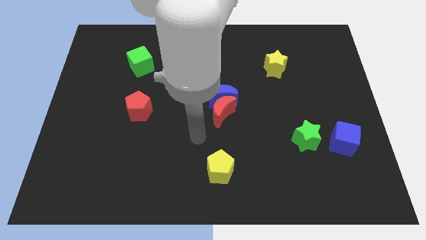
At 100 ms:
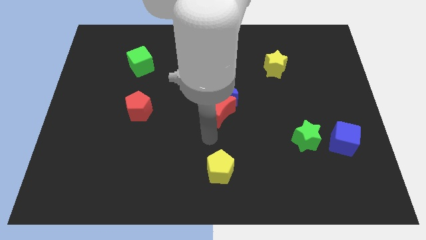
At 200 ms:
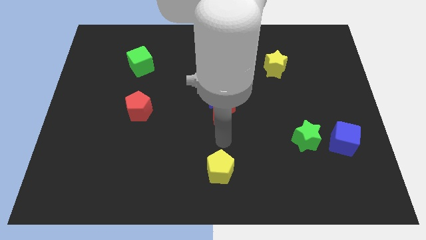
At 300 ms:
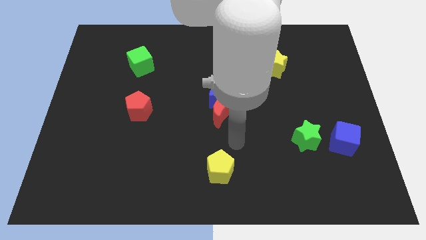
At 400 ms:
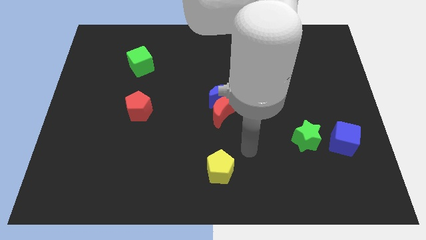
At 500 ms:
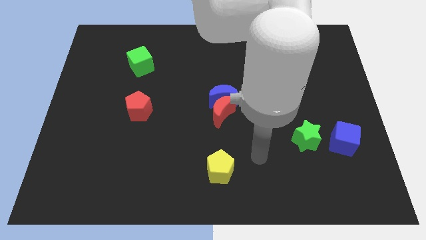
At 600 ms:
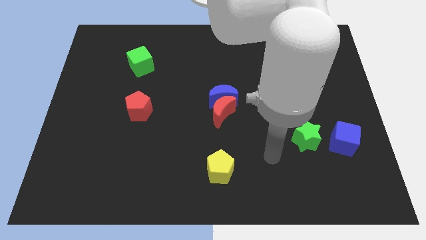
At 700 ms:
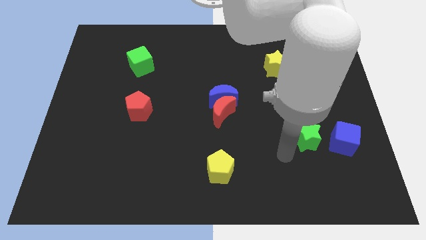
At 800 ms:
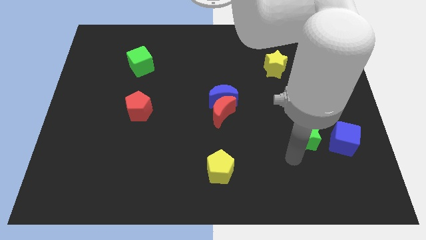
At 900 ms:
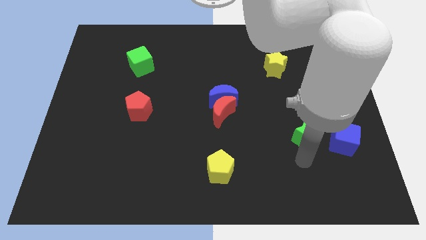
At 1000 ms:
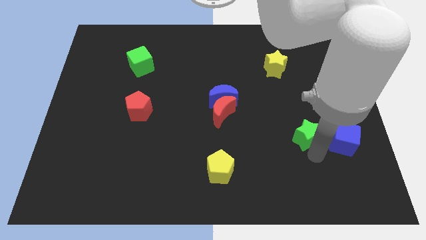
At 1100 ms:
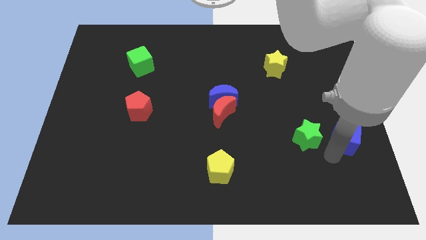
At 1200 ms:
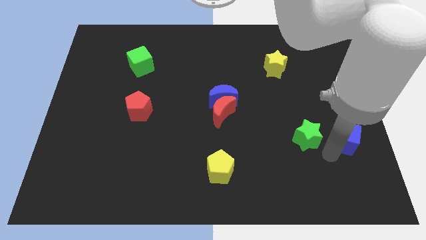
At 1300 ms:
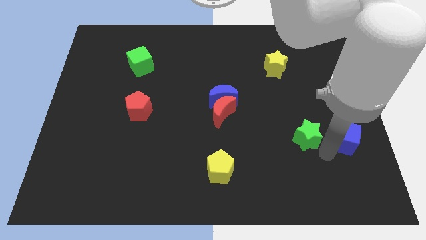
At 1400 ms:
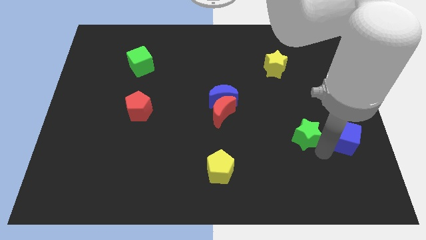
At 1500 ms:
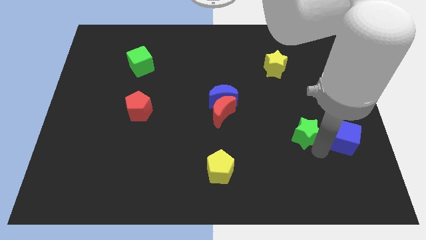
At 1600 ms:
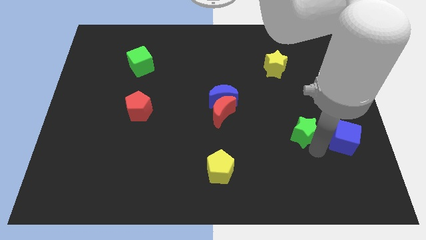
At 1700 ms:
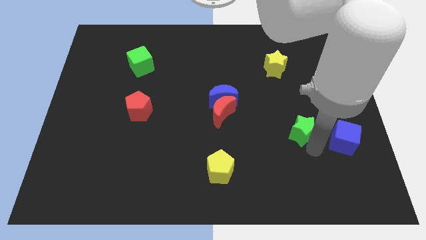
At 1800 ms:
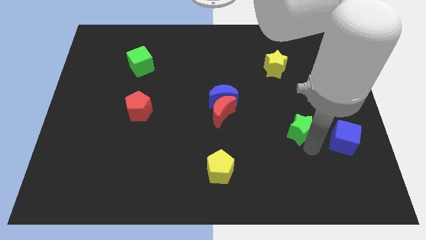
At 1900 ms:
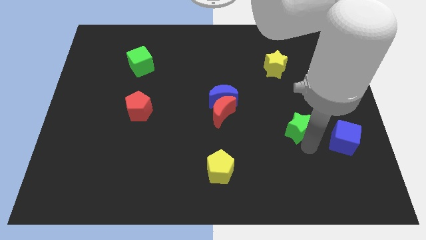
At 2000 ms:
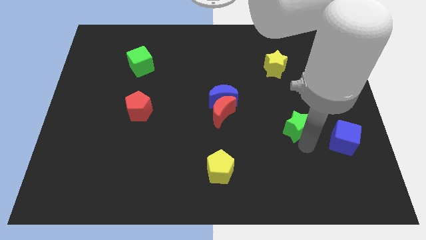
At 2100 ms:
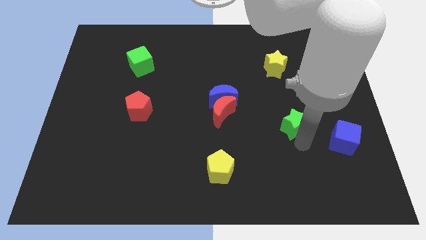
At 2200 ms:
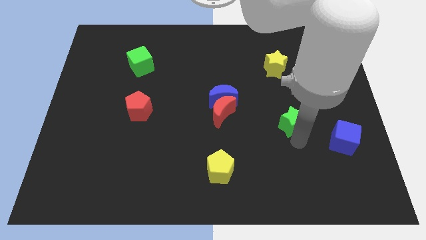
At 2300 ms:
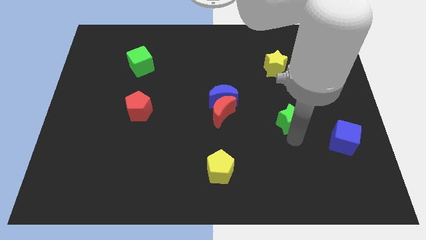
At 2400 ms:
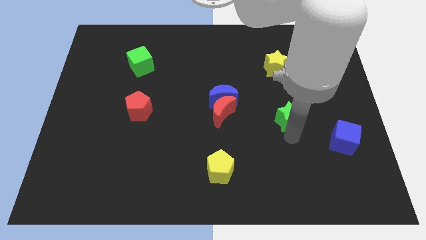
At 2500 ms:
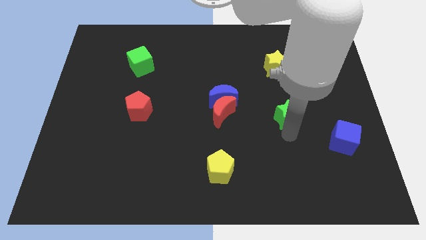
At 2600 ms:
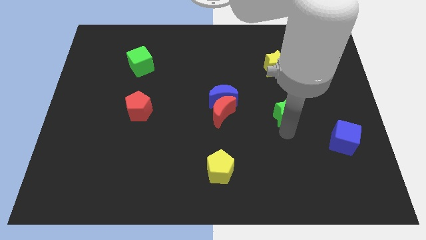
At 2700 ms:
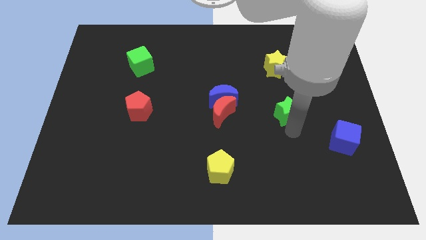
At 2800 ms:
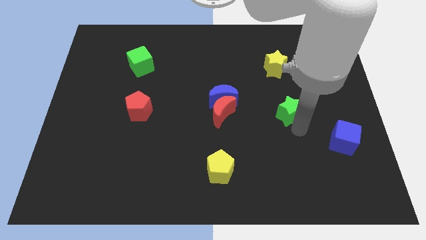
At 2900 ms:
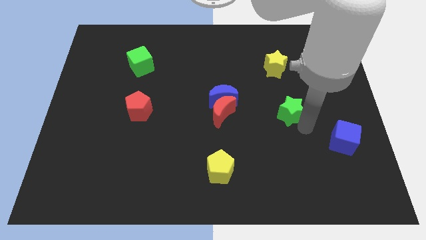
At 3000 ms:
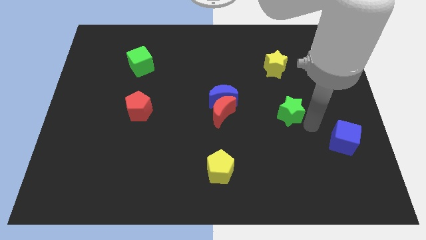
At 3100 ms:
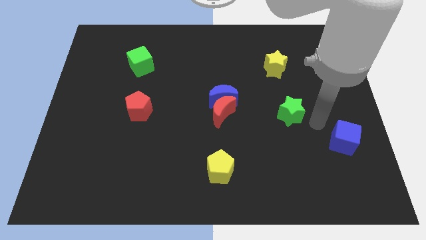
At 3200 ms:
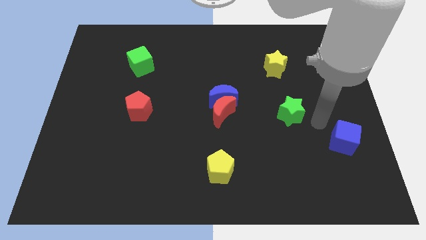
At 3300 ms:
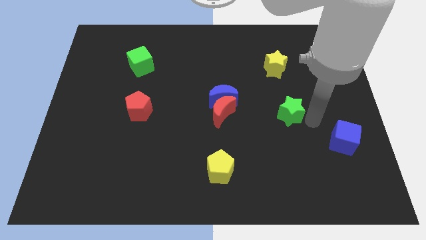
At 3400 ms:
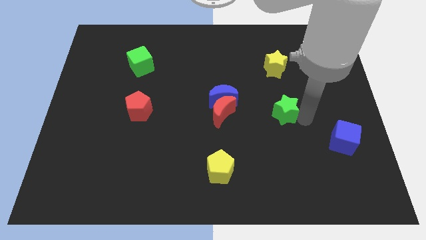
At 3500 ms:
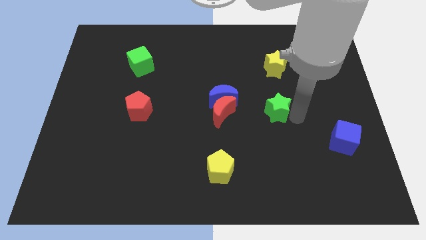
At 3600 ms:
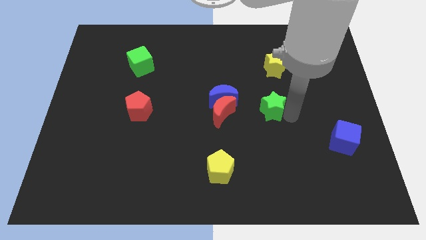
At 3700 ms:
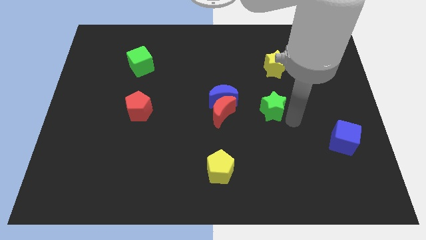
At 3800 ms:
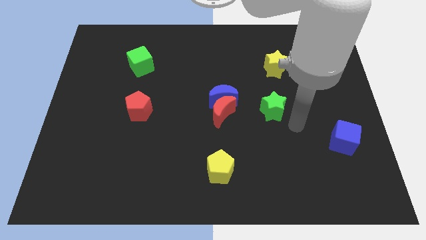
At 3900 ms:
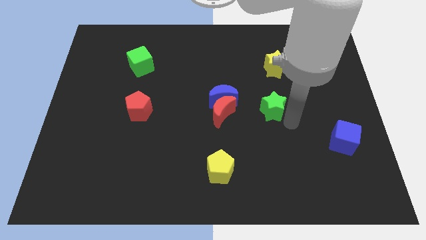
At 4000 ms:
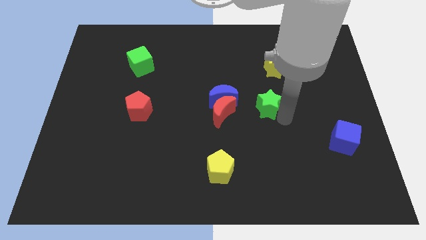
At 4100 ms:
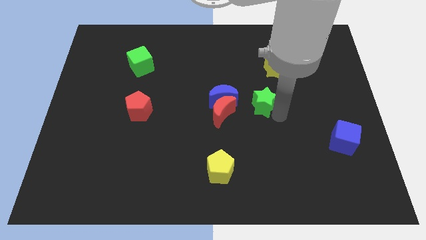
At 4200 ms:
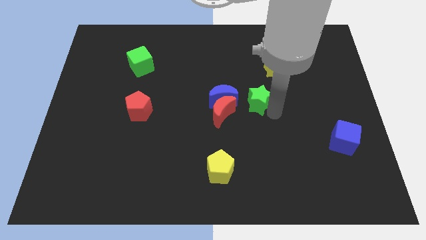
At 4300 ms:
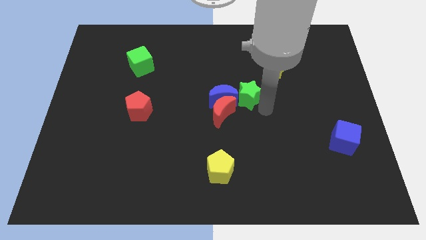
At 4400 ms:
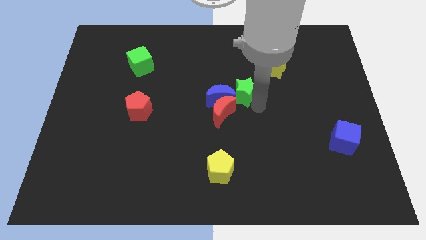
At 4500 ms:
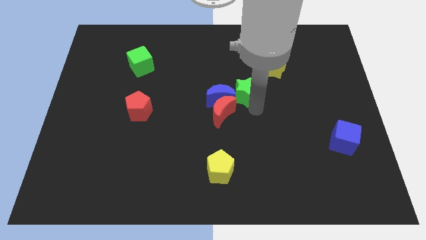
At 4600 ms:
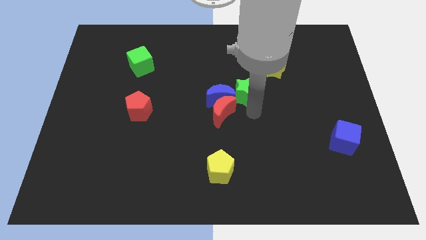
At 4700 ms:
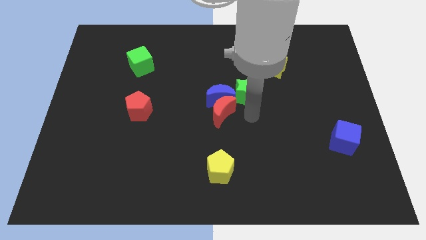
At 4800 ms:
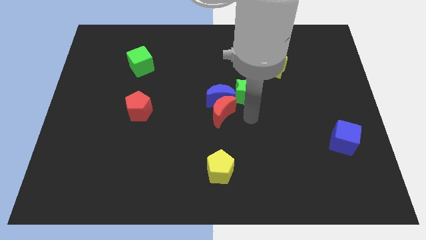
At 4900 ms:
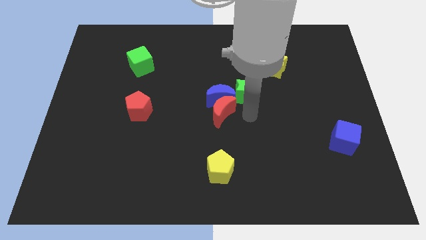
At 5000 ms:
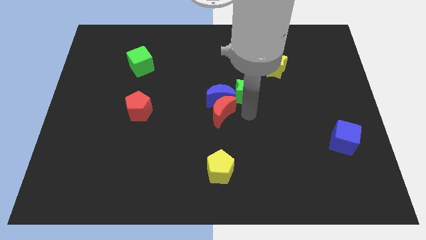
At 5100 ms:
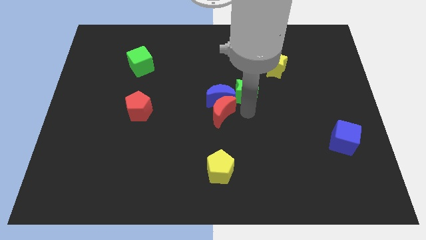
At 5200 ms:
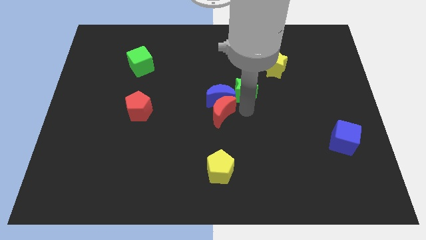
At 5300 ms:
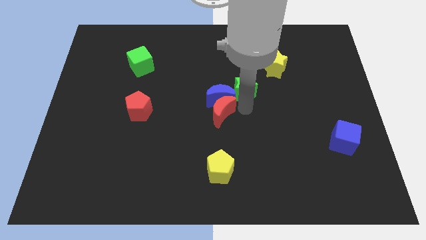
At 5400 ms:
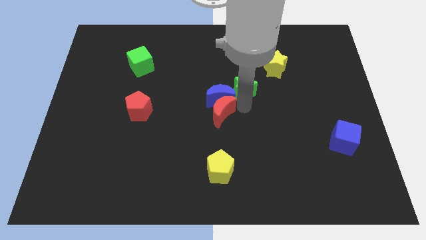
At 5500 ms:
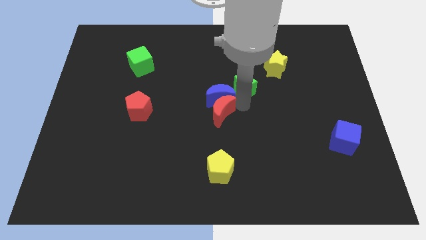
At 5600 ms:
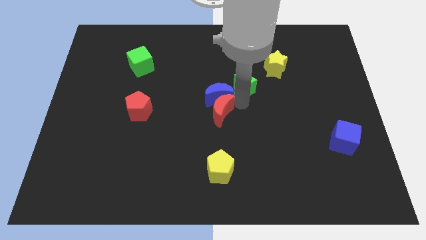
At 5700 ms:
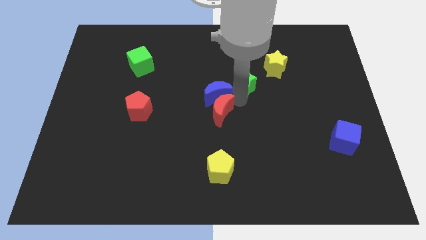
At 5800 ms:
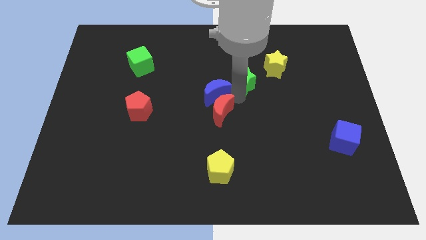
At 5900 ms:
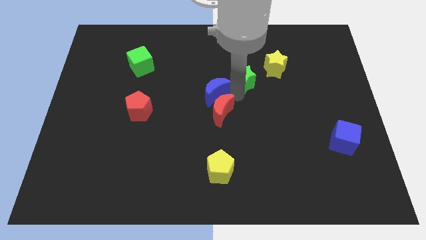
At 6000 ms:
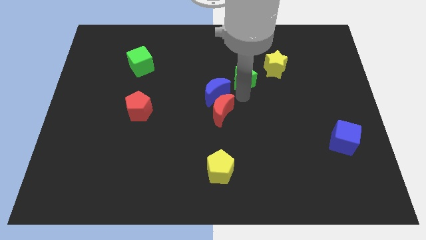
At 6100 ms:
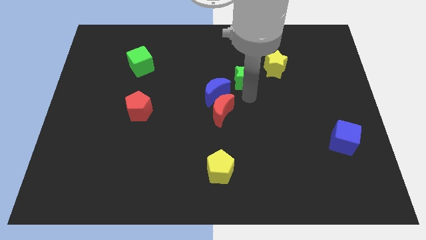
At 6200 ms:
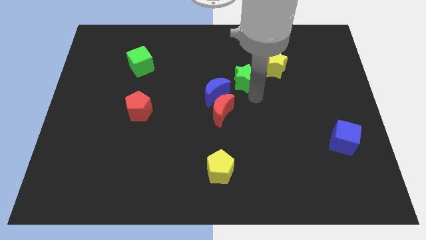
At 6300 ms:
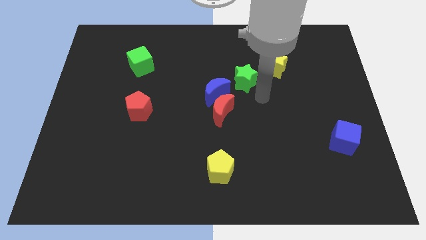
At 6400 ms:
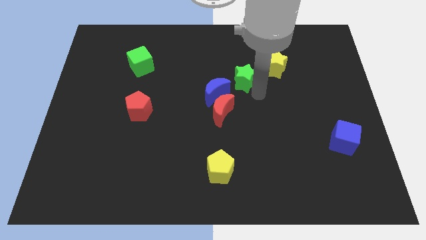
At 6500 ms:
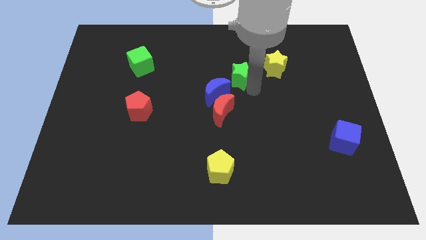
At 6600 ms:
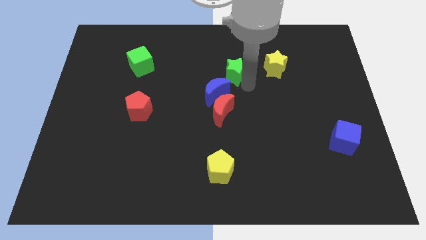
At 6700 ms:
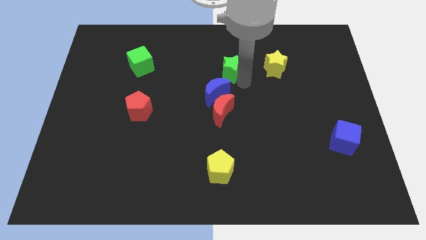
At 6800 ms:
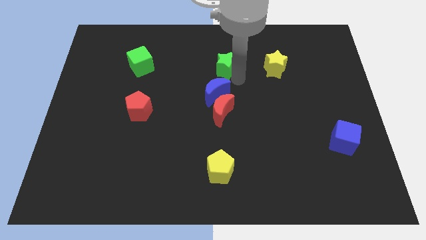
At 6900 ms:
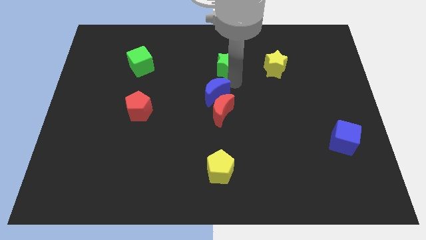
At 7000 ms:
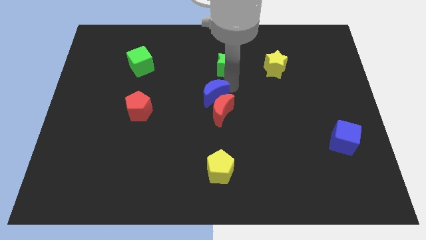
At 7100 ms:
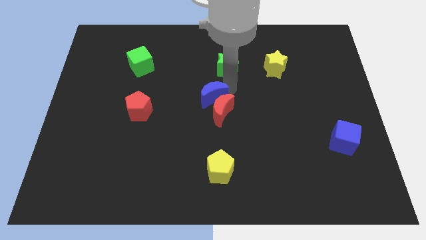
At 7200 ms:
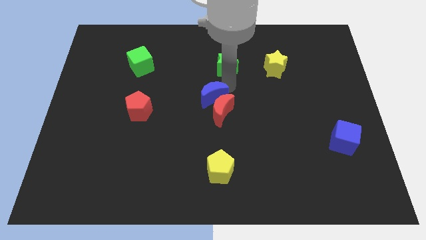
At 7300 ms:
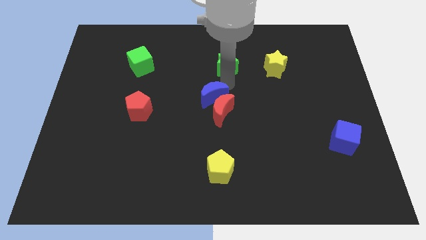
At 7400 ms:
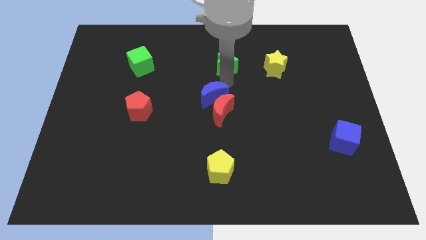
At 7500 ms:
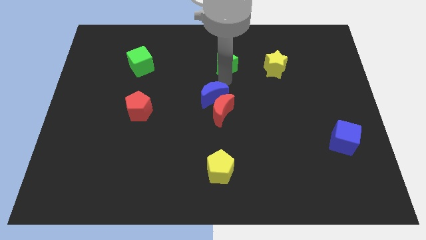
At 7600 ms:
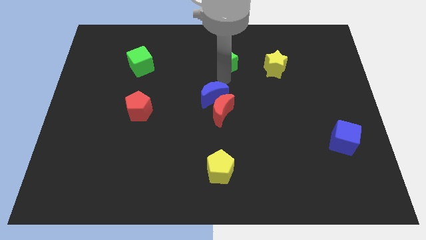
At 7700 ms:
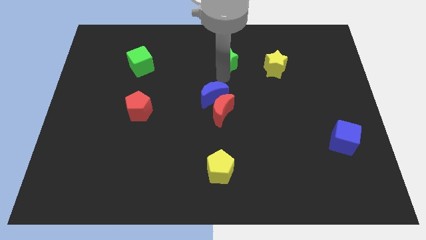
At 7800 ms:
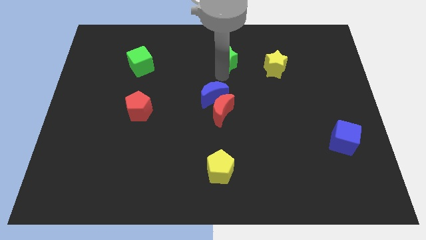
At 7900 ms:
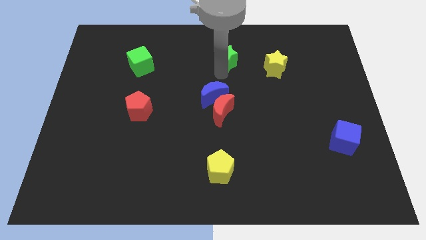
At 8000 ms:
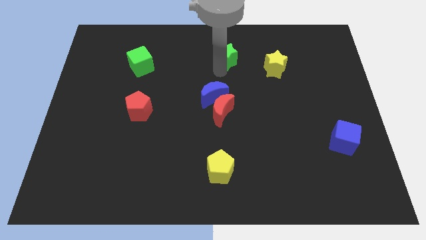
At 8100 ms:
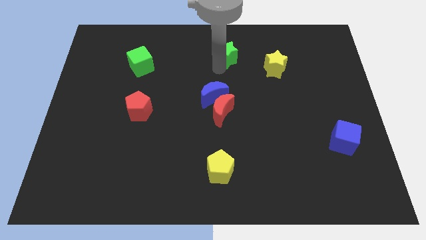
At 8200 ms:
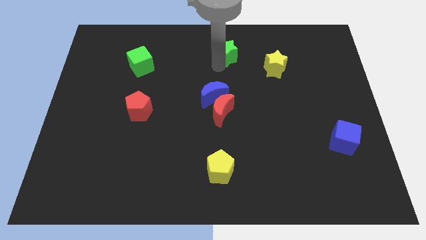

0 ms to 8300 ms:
slide the green star to the top side
